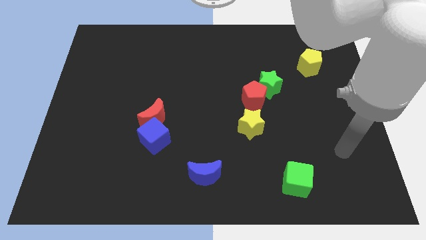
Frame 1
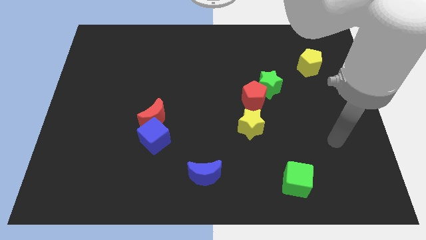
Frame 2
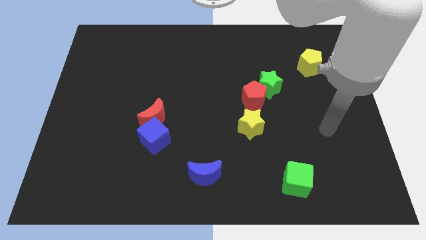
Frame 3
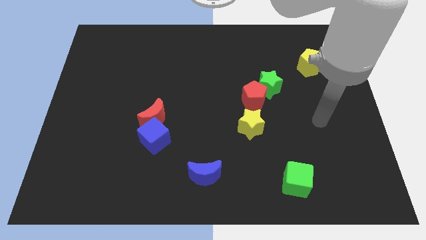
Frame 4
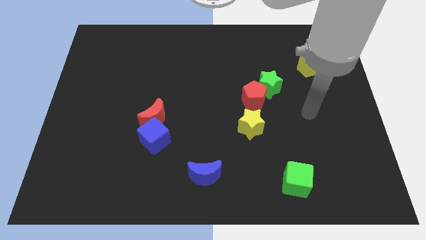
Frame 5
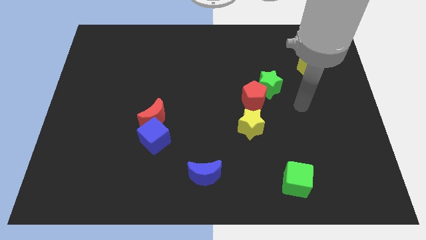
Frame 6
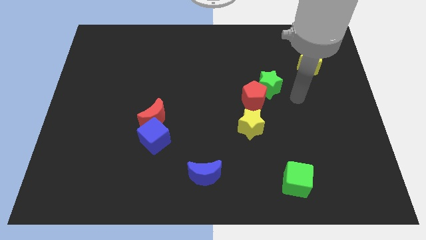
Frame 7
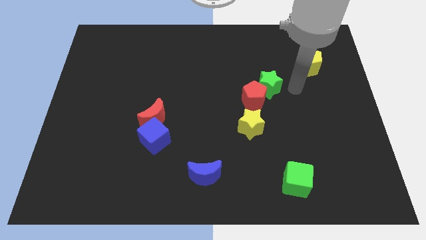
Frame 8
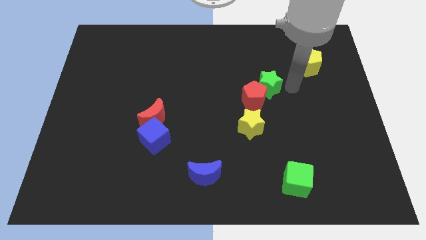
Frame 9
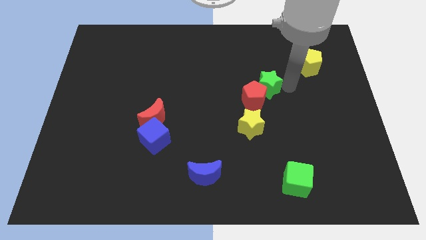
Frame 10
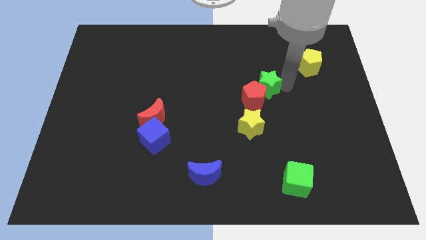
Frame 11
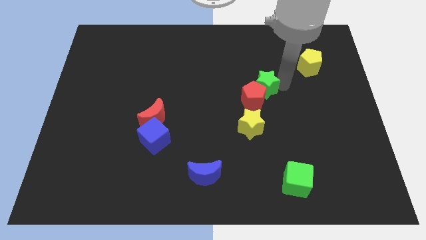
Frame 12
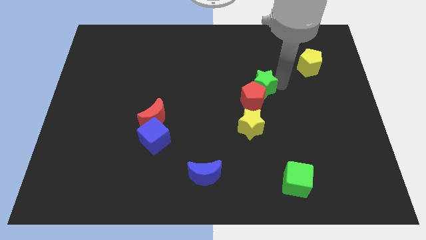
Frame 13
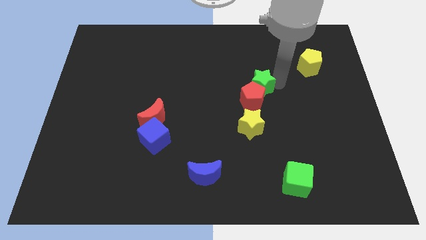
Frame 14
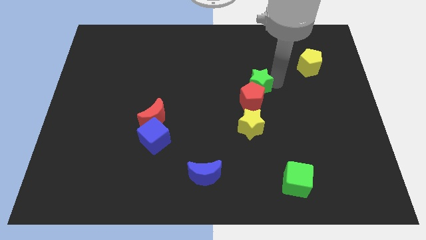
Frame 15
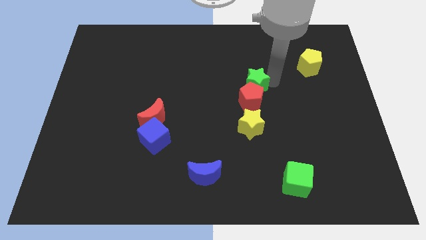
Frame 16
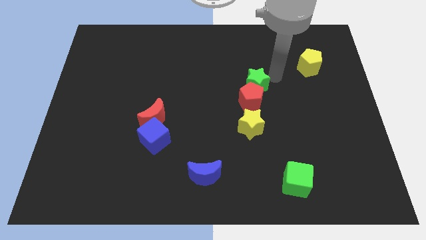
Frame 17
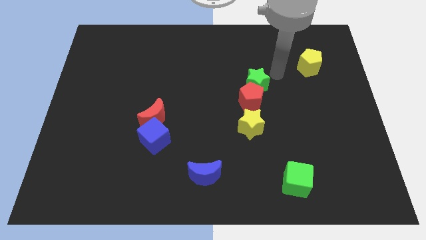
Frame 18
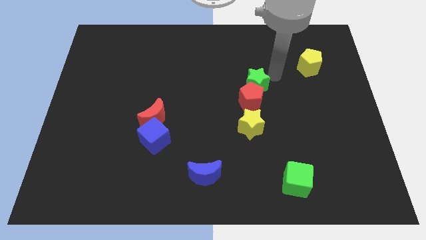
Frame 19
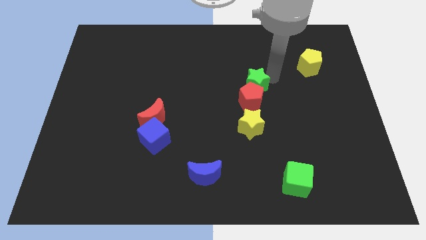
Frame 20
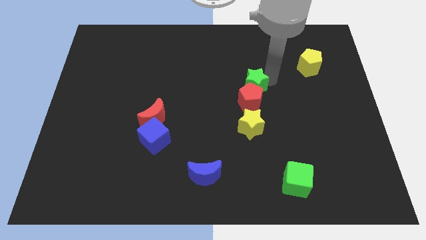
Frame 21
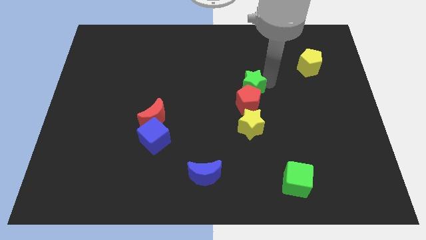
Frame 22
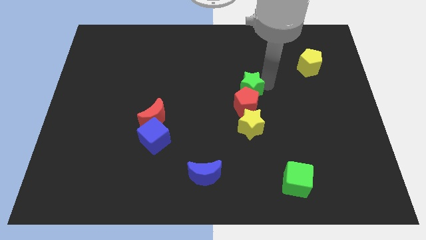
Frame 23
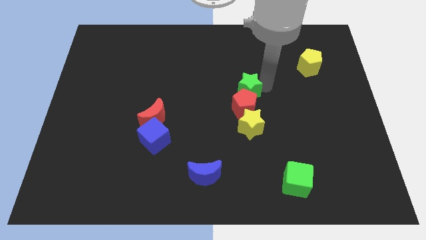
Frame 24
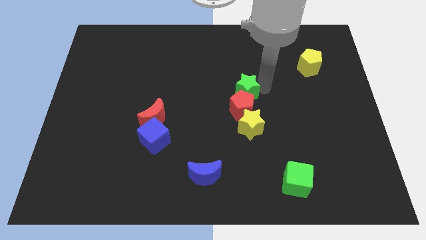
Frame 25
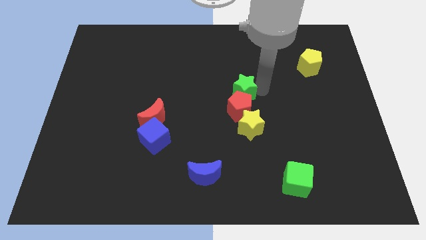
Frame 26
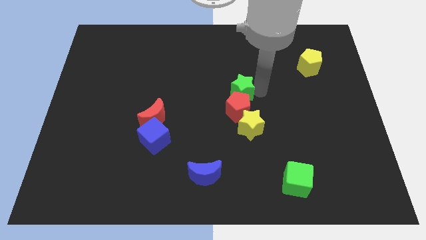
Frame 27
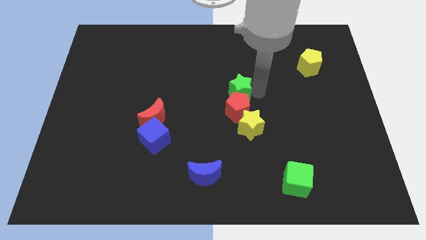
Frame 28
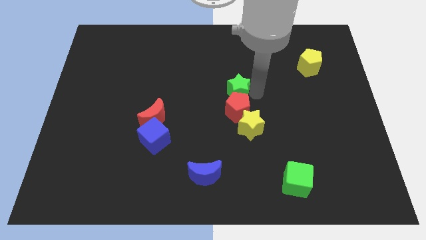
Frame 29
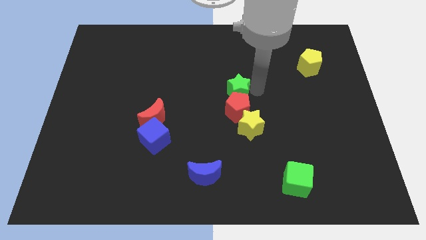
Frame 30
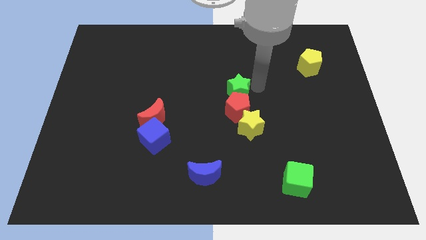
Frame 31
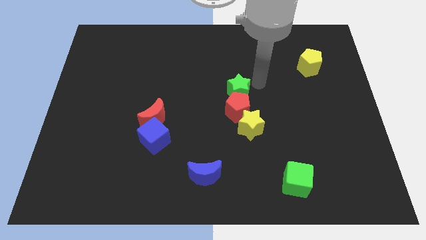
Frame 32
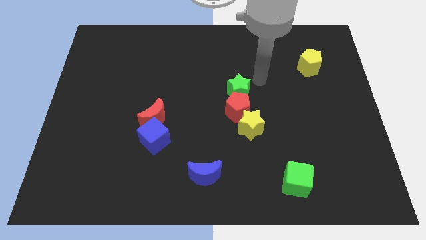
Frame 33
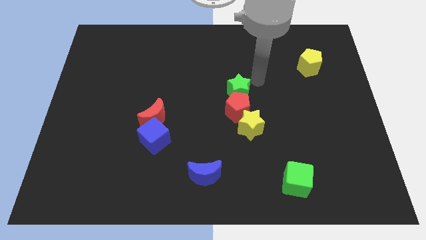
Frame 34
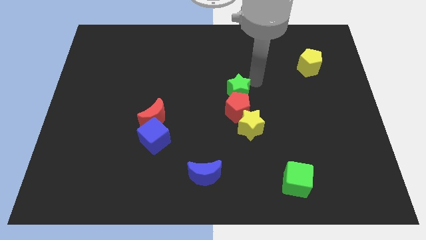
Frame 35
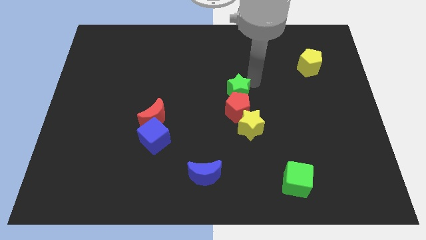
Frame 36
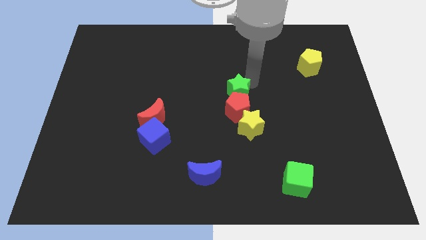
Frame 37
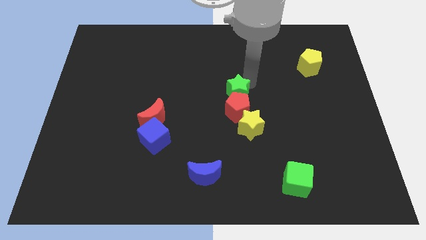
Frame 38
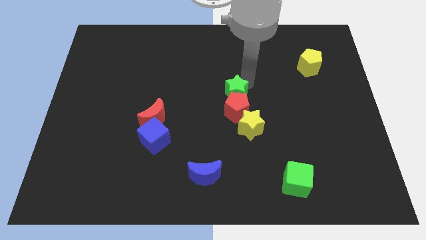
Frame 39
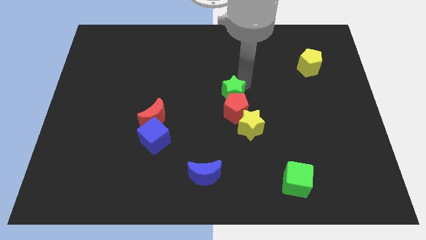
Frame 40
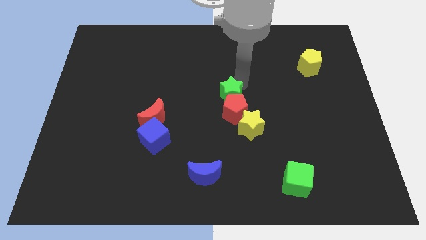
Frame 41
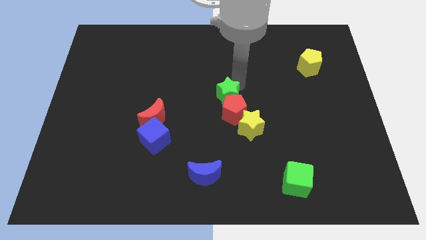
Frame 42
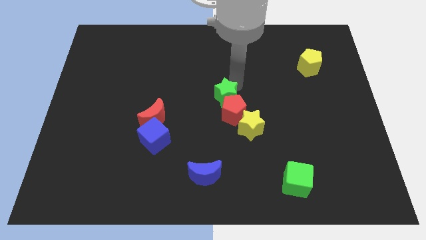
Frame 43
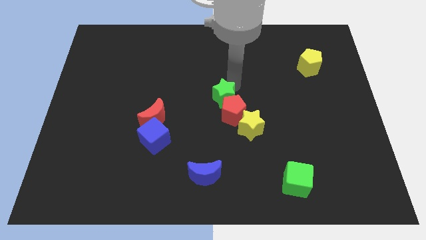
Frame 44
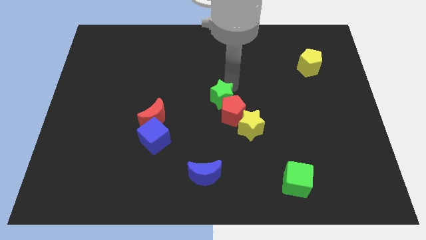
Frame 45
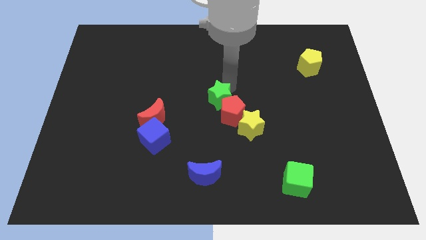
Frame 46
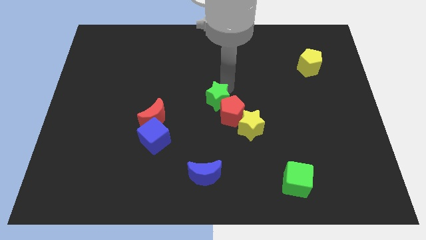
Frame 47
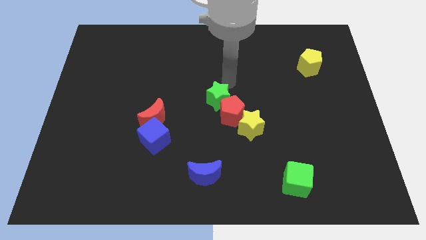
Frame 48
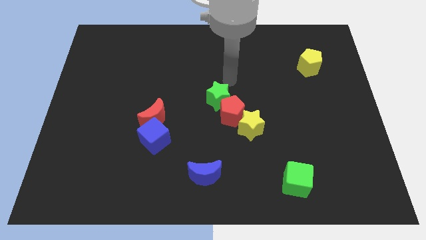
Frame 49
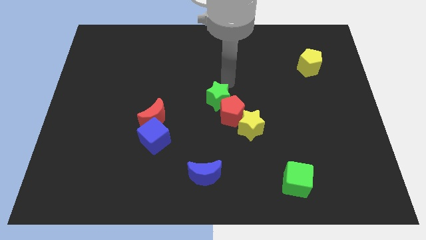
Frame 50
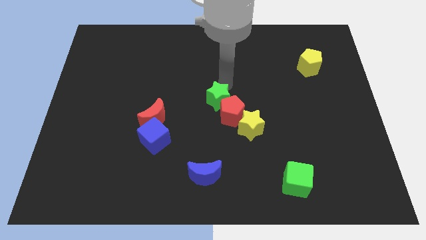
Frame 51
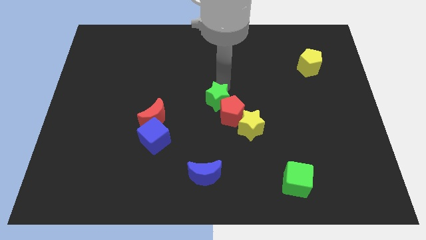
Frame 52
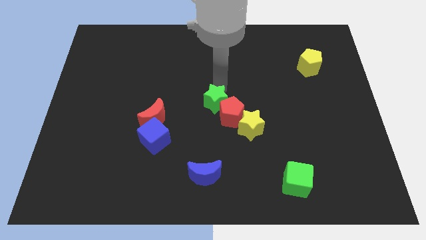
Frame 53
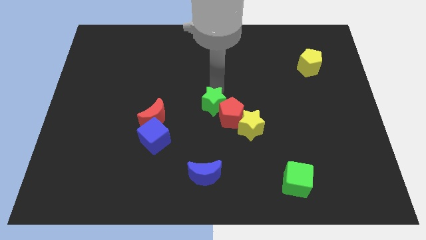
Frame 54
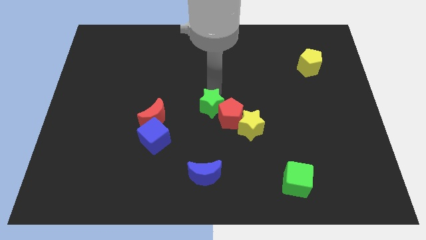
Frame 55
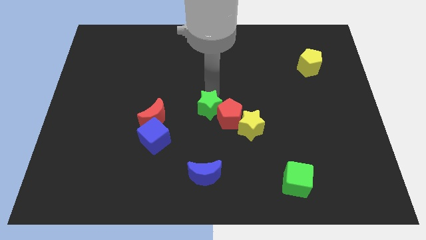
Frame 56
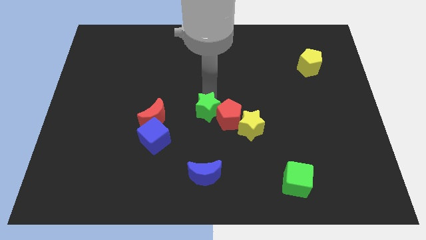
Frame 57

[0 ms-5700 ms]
move the green star left of the yellow star

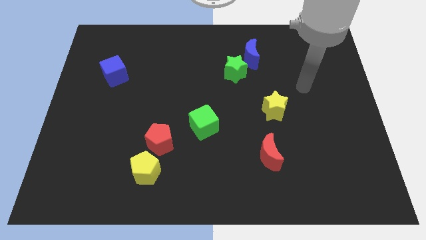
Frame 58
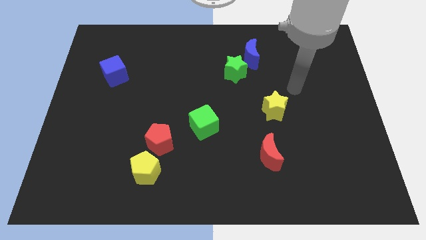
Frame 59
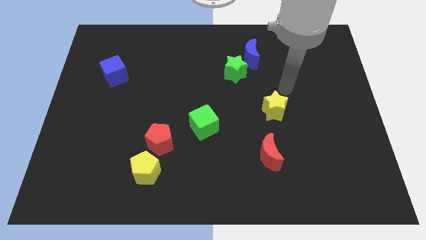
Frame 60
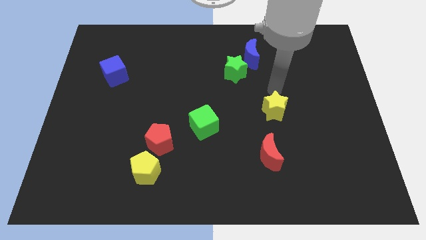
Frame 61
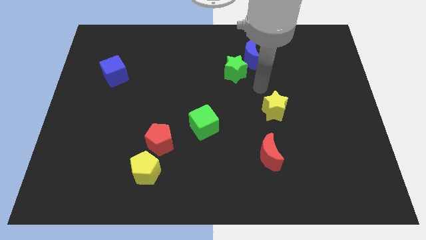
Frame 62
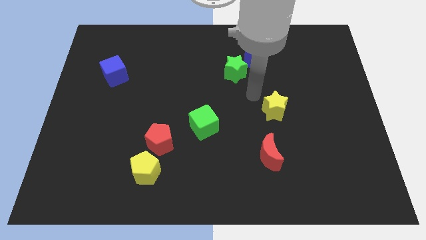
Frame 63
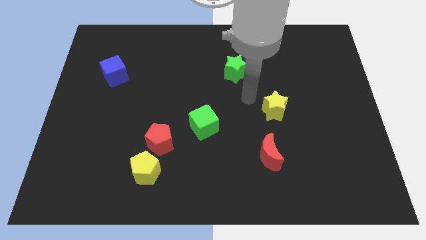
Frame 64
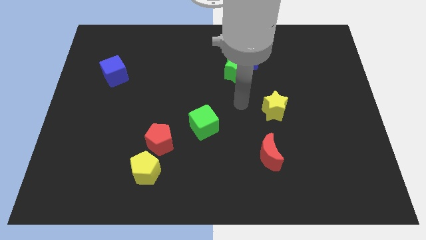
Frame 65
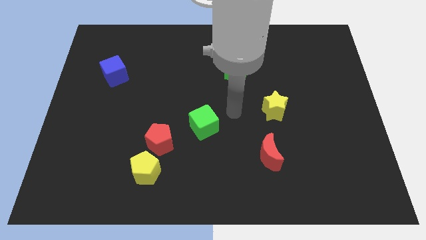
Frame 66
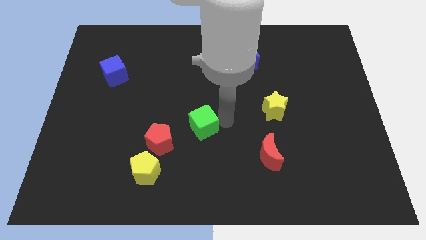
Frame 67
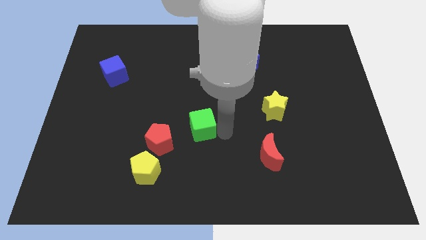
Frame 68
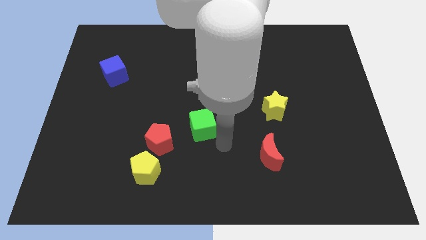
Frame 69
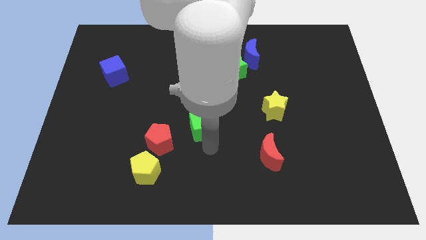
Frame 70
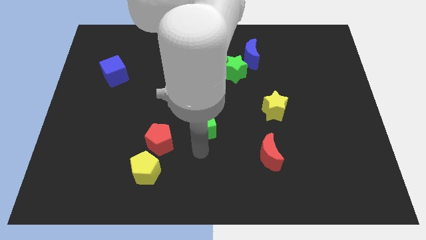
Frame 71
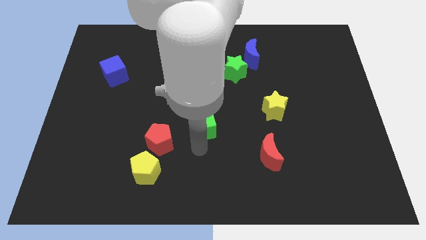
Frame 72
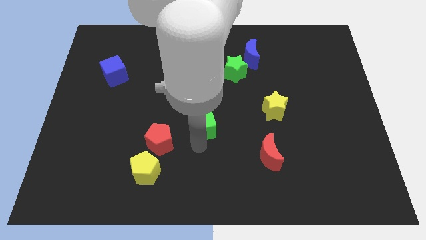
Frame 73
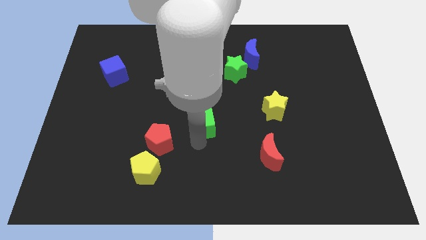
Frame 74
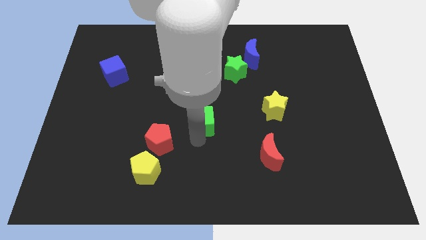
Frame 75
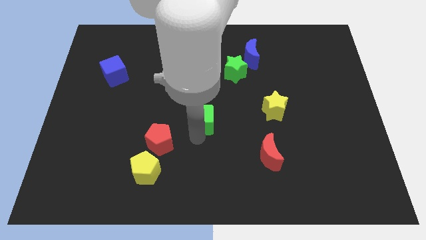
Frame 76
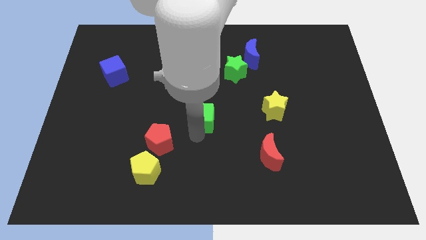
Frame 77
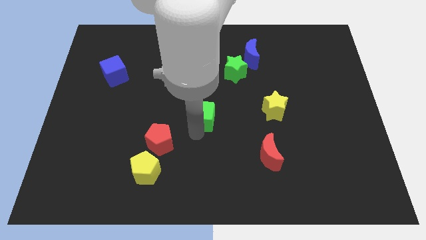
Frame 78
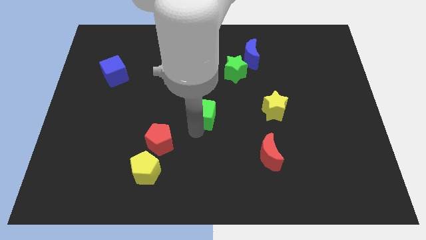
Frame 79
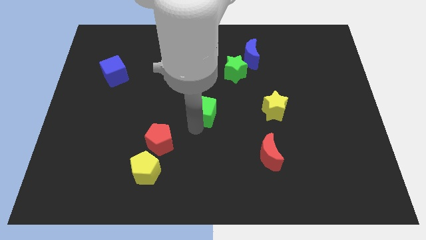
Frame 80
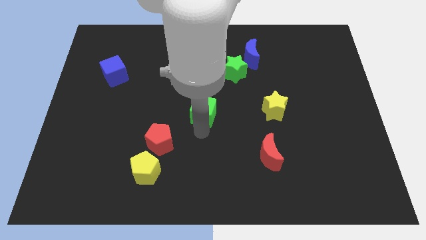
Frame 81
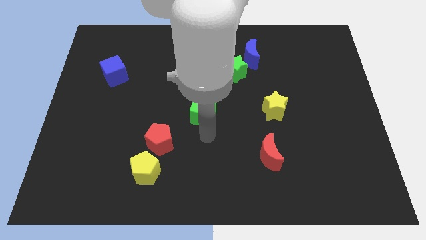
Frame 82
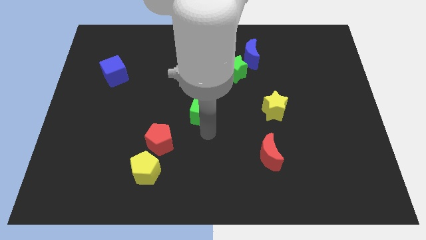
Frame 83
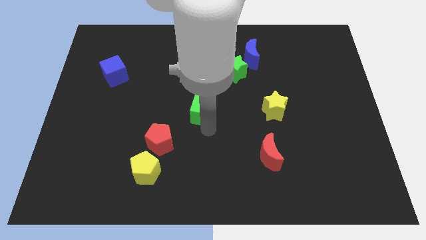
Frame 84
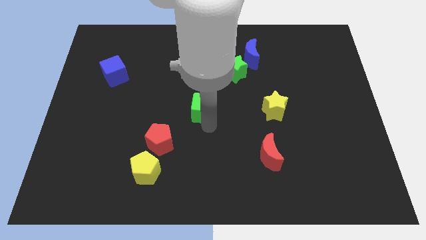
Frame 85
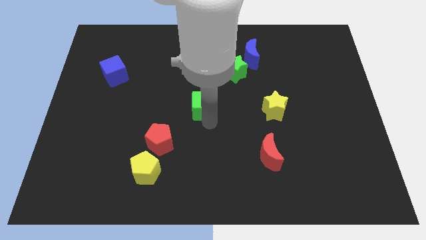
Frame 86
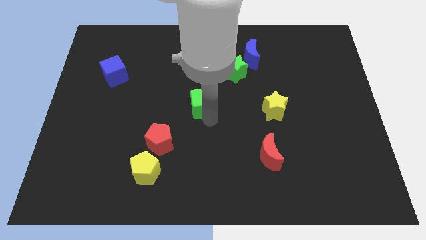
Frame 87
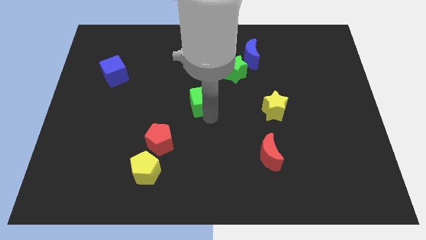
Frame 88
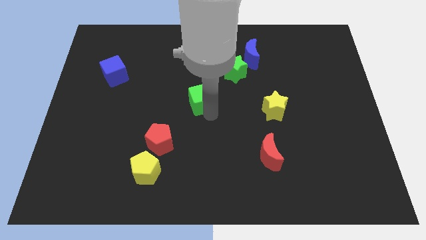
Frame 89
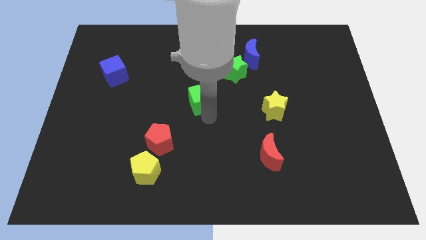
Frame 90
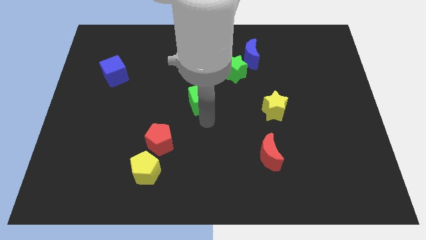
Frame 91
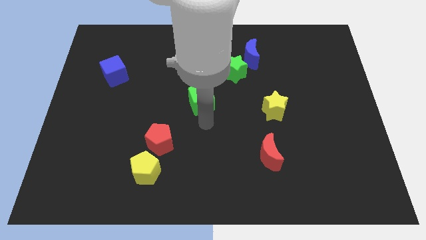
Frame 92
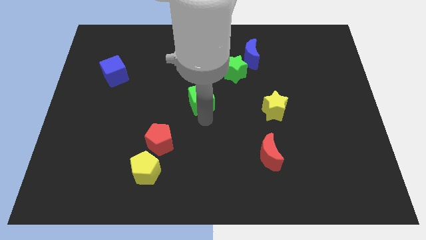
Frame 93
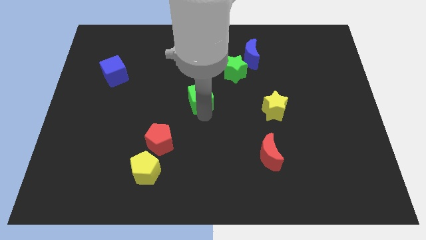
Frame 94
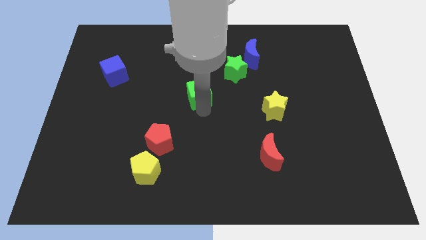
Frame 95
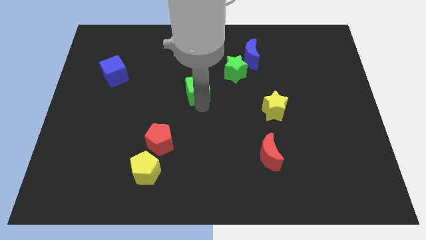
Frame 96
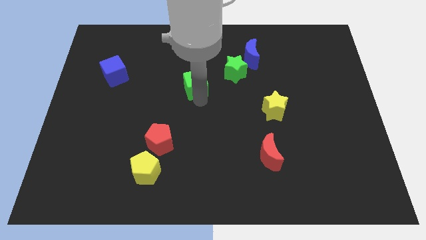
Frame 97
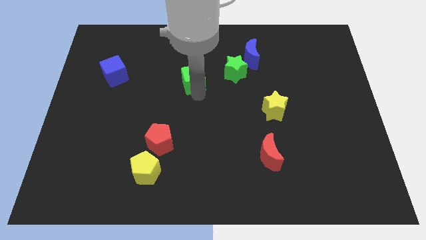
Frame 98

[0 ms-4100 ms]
push the green cube just left of the green star
